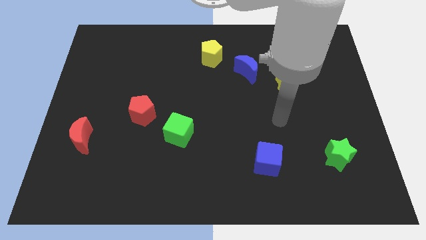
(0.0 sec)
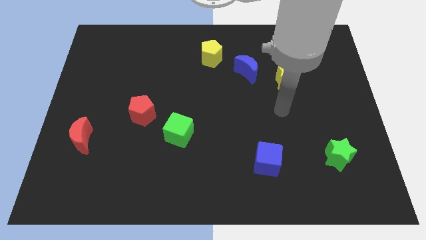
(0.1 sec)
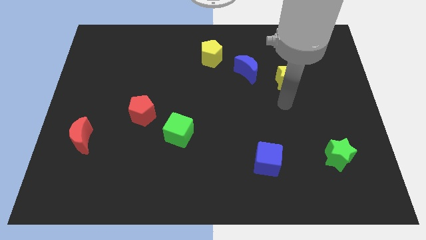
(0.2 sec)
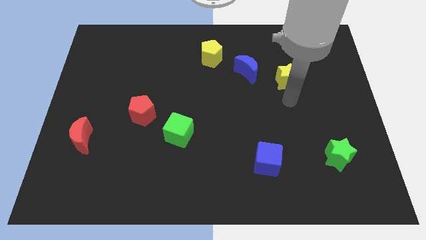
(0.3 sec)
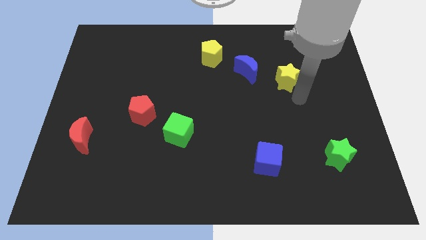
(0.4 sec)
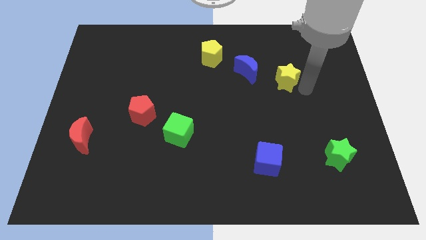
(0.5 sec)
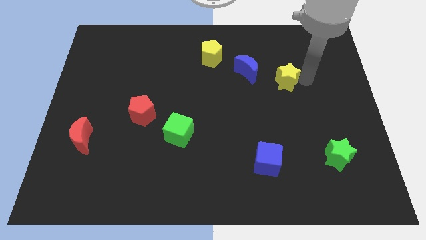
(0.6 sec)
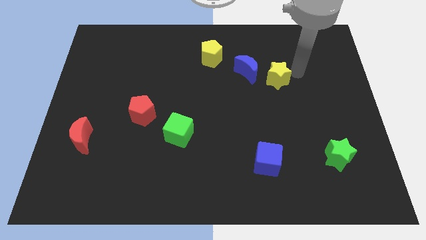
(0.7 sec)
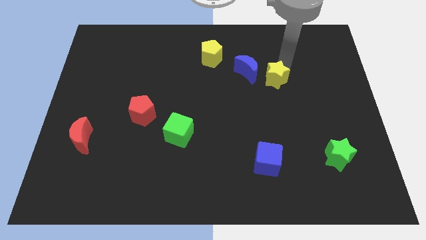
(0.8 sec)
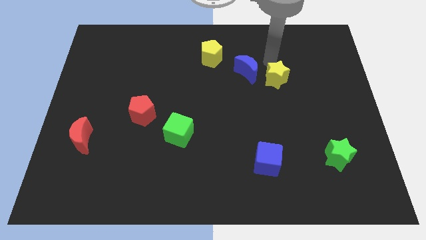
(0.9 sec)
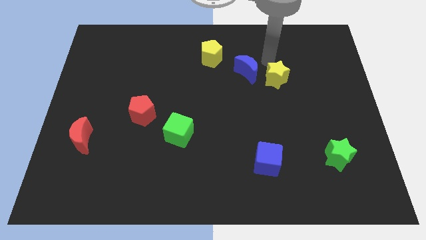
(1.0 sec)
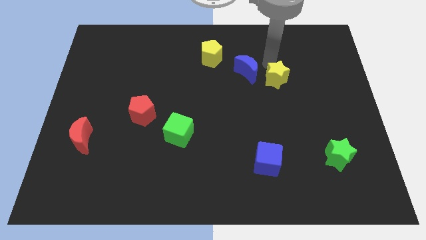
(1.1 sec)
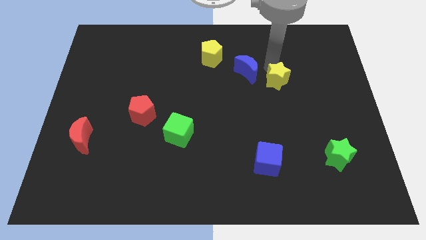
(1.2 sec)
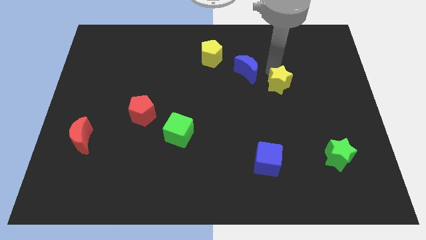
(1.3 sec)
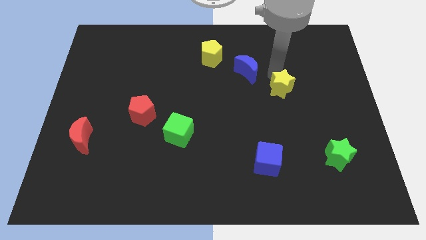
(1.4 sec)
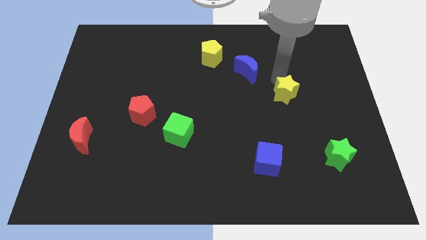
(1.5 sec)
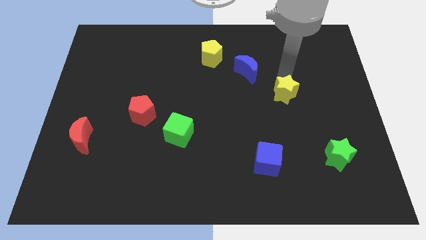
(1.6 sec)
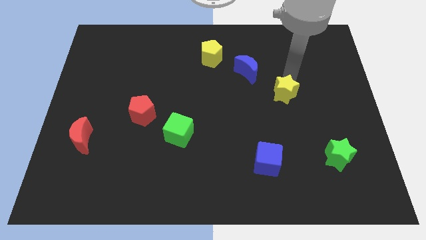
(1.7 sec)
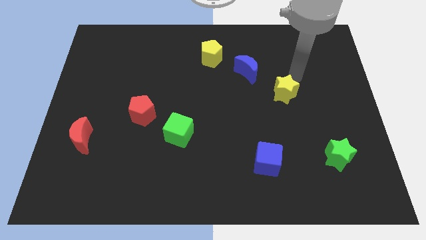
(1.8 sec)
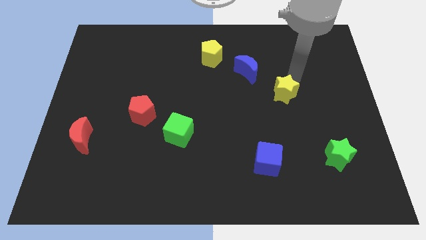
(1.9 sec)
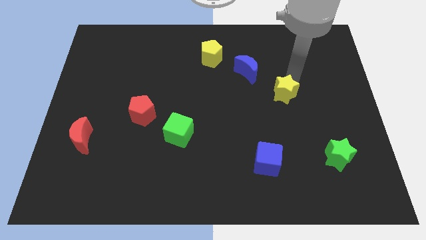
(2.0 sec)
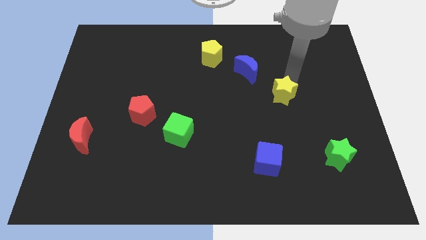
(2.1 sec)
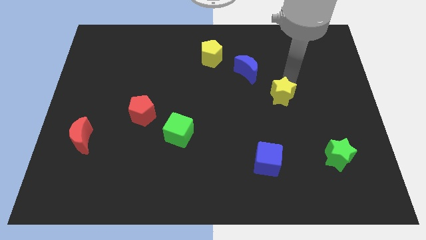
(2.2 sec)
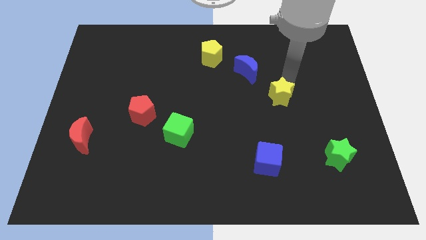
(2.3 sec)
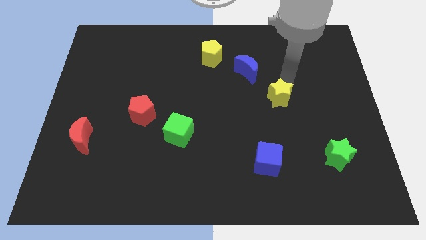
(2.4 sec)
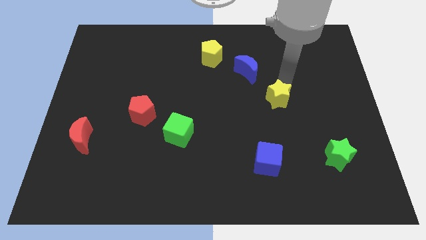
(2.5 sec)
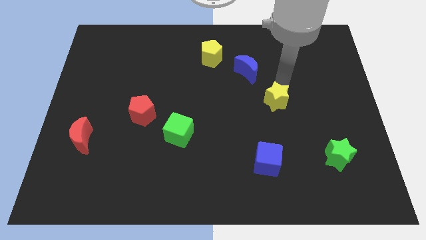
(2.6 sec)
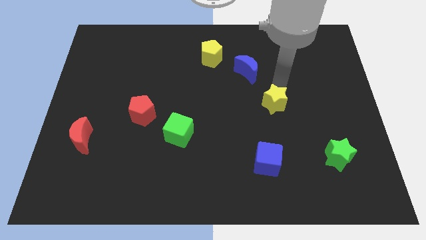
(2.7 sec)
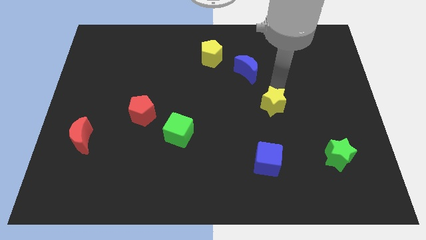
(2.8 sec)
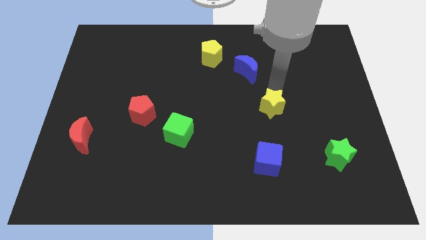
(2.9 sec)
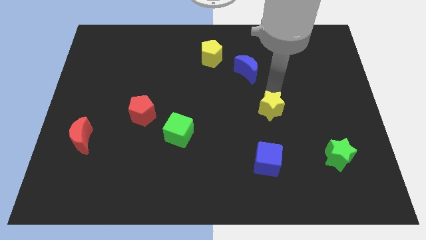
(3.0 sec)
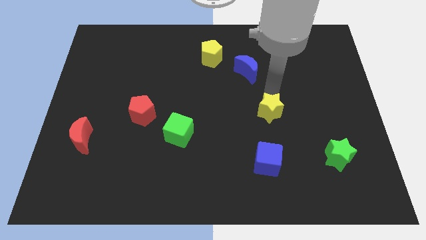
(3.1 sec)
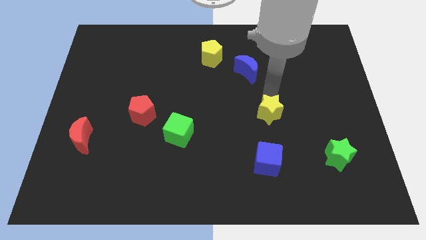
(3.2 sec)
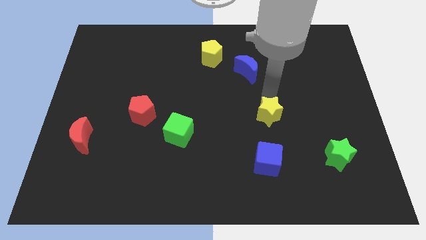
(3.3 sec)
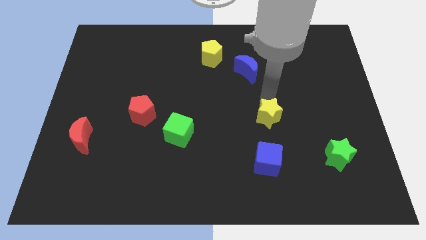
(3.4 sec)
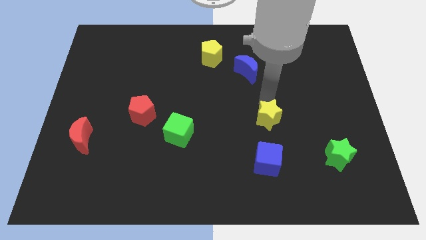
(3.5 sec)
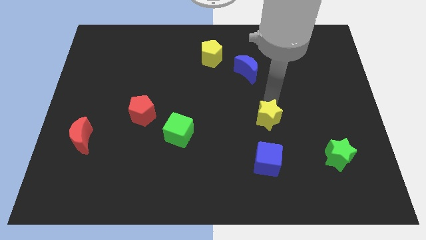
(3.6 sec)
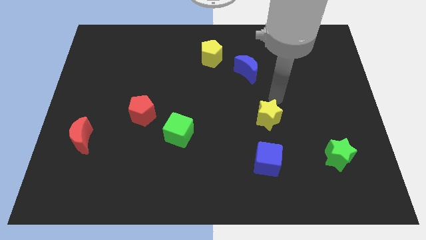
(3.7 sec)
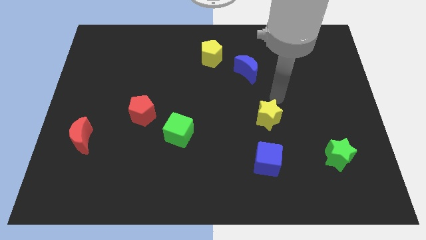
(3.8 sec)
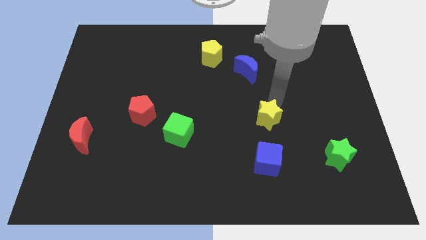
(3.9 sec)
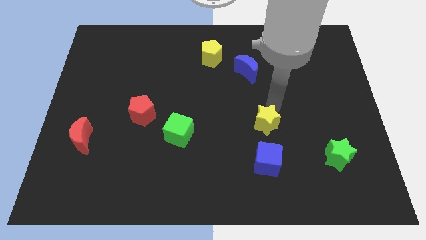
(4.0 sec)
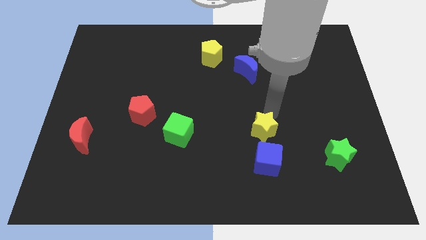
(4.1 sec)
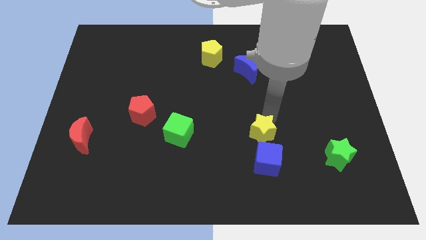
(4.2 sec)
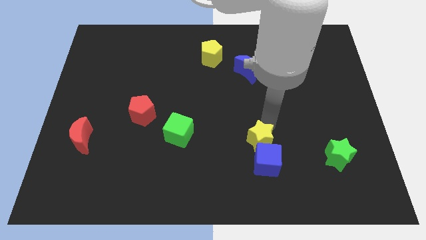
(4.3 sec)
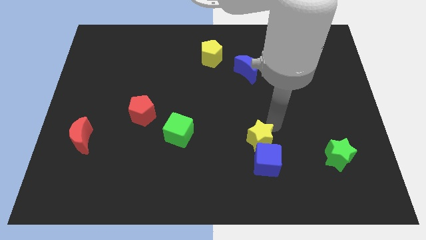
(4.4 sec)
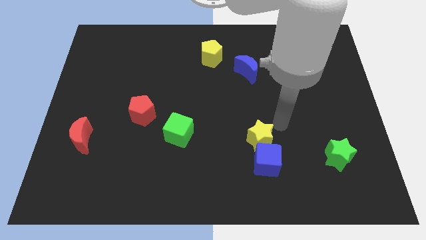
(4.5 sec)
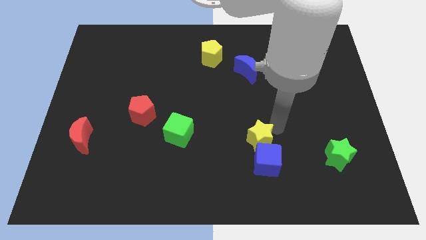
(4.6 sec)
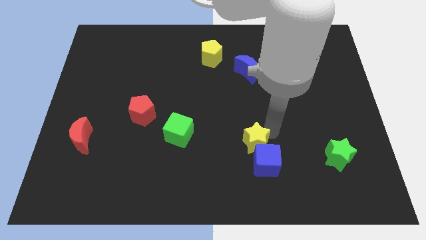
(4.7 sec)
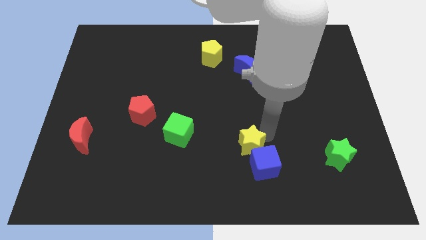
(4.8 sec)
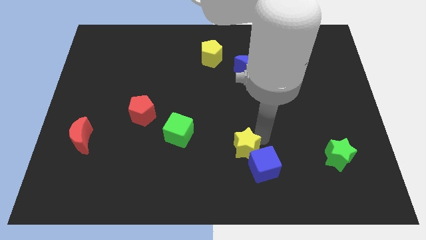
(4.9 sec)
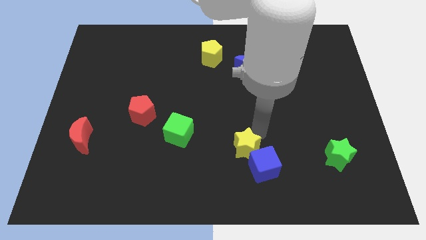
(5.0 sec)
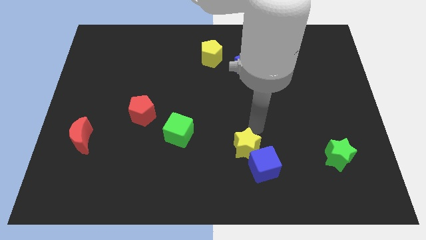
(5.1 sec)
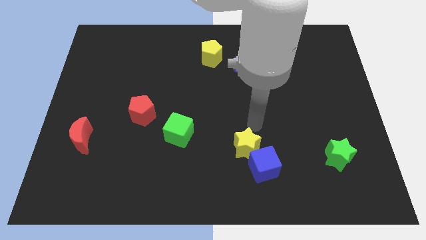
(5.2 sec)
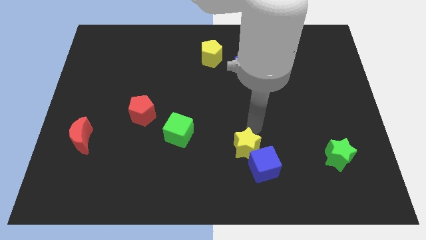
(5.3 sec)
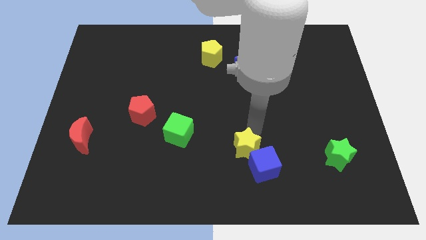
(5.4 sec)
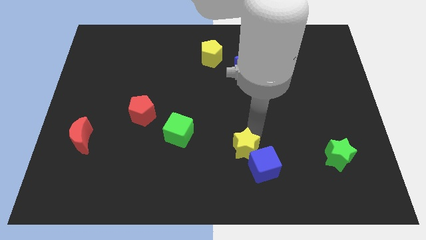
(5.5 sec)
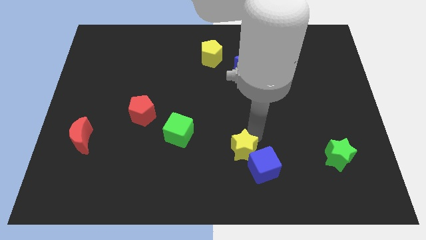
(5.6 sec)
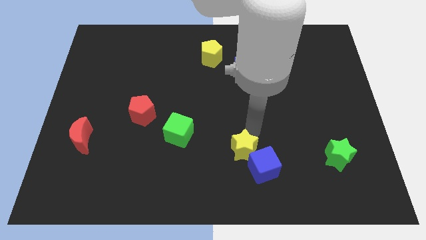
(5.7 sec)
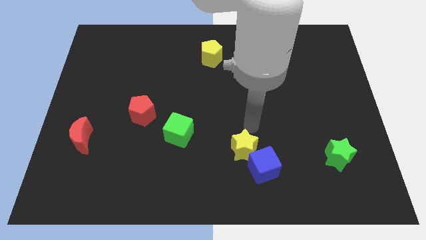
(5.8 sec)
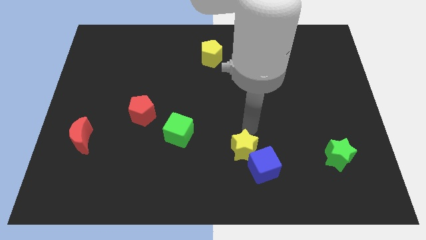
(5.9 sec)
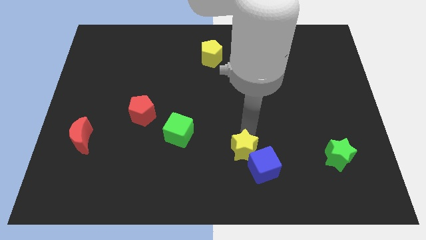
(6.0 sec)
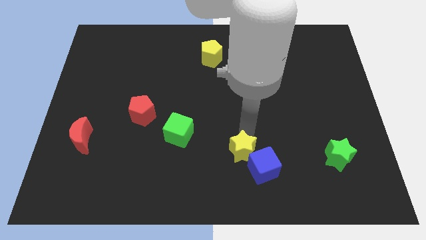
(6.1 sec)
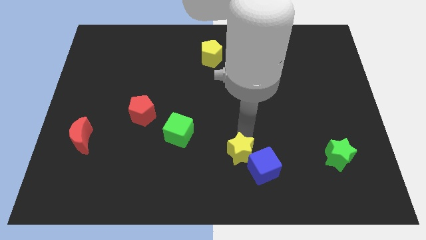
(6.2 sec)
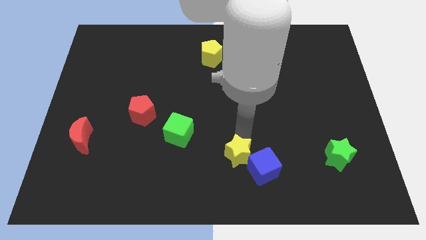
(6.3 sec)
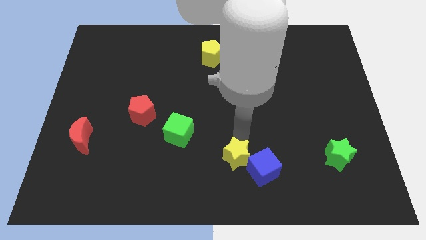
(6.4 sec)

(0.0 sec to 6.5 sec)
move the yellow star to the bottom side

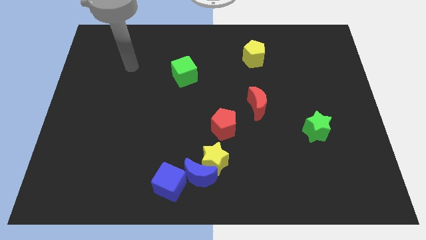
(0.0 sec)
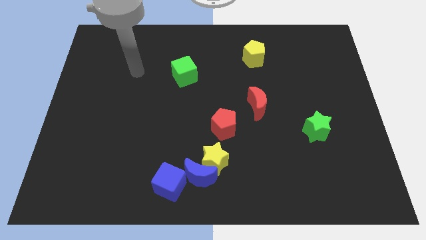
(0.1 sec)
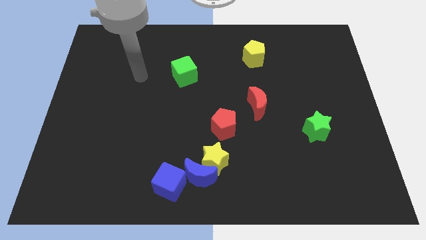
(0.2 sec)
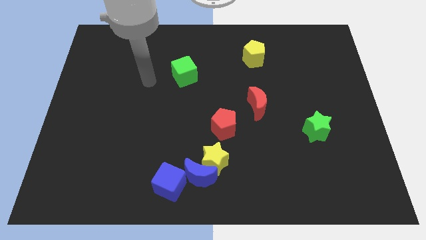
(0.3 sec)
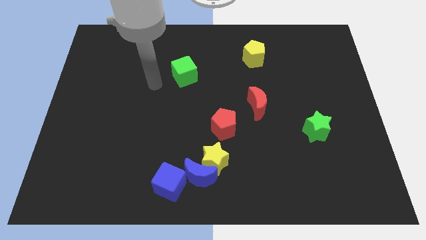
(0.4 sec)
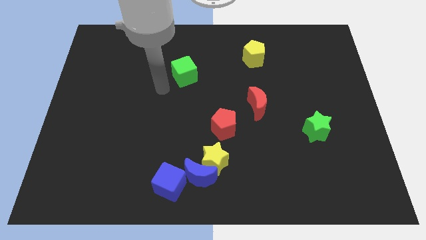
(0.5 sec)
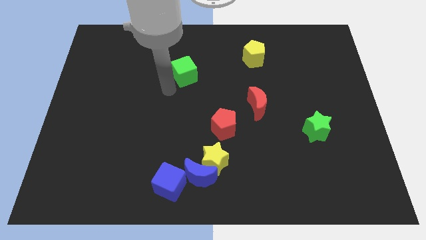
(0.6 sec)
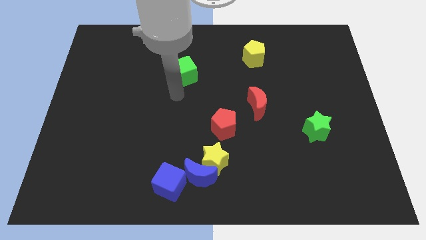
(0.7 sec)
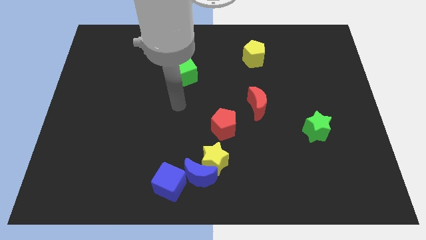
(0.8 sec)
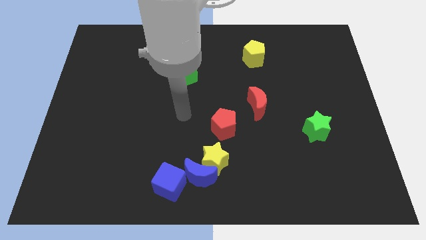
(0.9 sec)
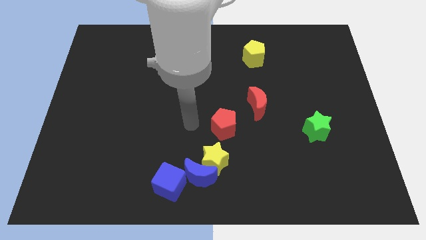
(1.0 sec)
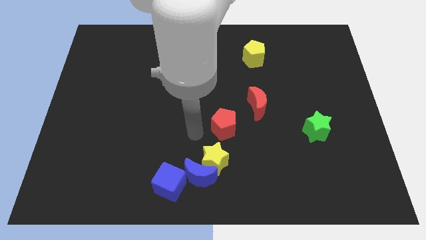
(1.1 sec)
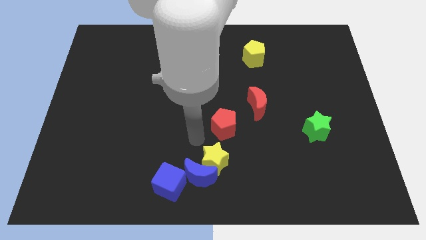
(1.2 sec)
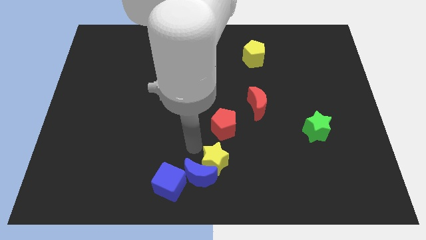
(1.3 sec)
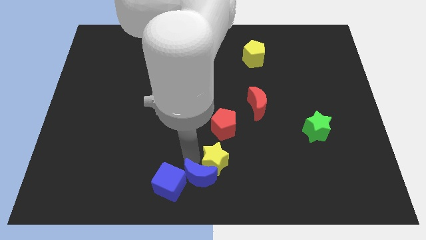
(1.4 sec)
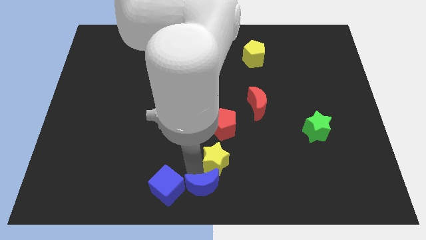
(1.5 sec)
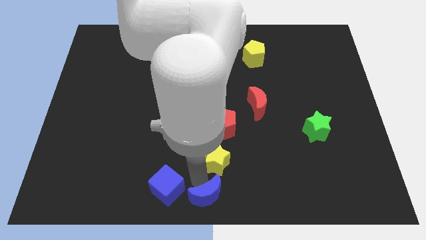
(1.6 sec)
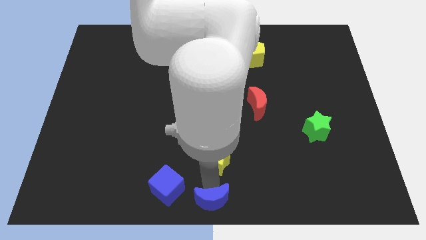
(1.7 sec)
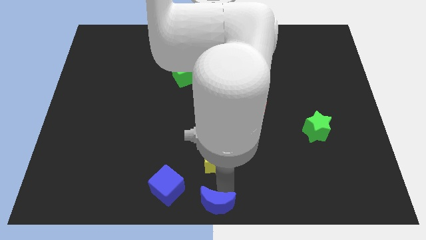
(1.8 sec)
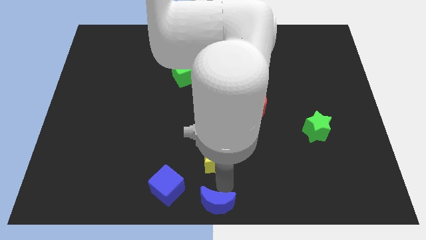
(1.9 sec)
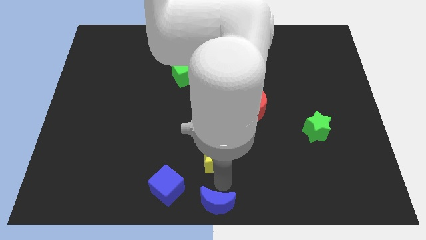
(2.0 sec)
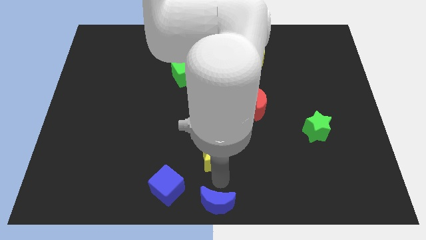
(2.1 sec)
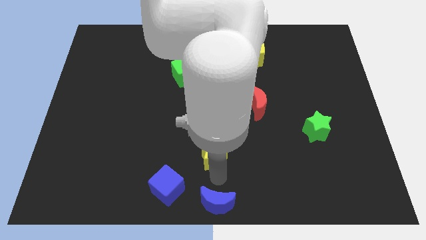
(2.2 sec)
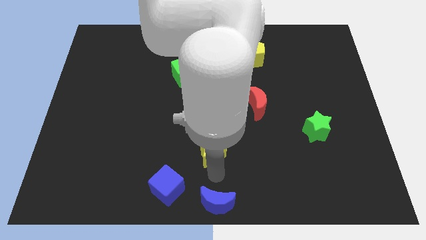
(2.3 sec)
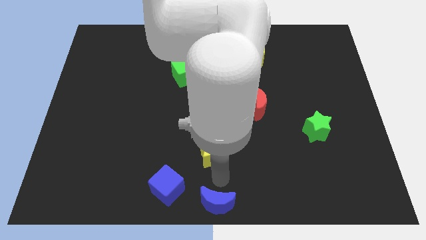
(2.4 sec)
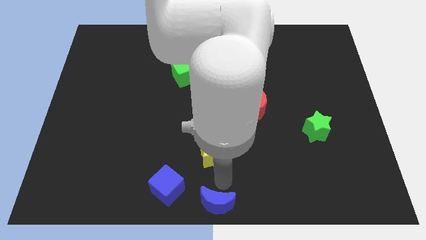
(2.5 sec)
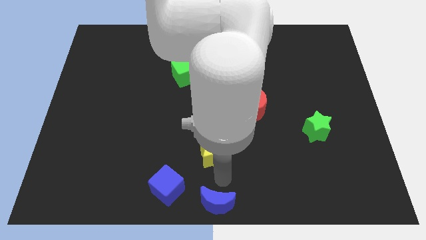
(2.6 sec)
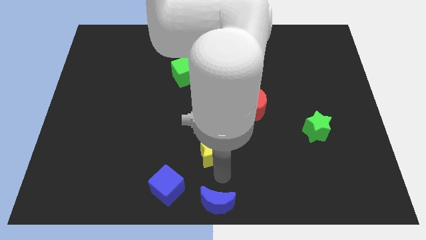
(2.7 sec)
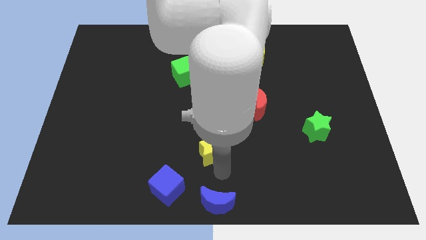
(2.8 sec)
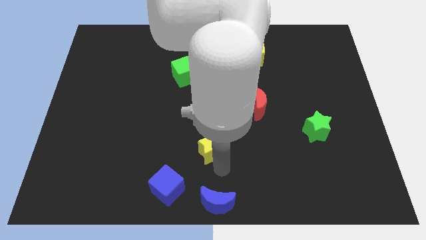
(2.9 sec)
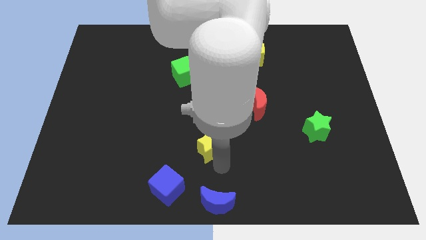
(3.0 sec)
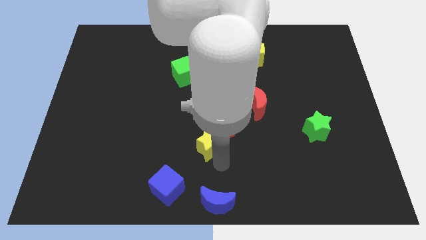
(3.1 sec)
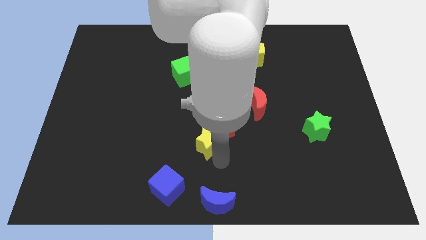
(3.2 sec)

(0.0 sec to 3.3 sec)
slide the yellow star to the middle of the board
